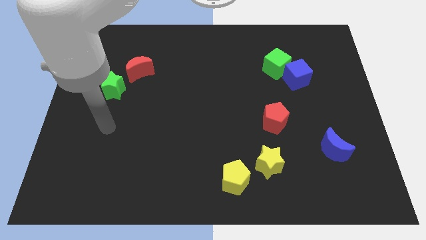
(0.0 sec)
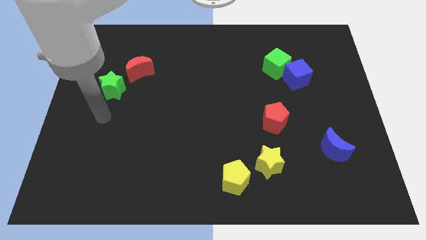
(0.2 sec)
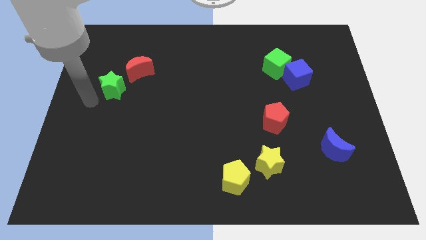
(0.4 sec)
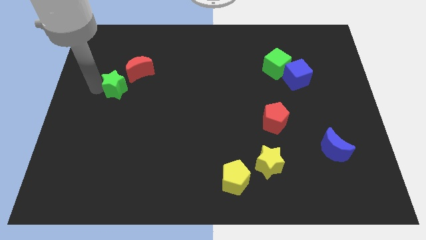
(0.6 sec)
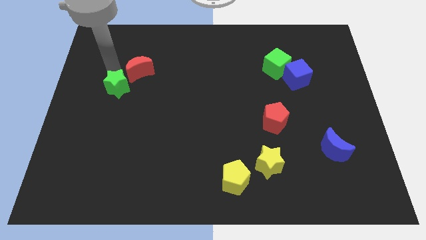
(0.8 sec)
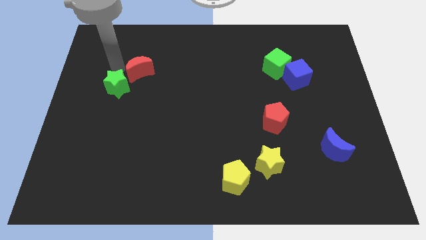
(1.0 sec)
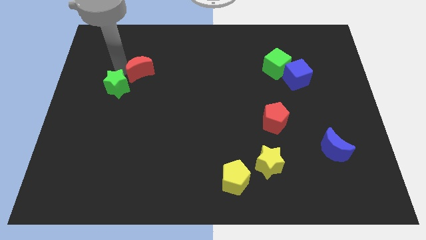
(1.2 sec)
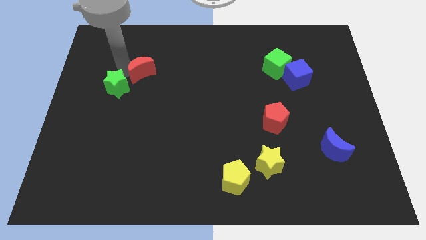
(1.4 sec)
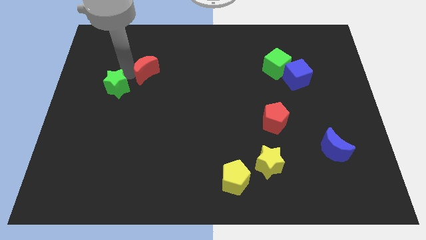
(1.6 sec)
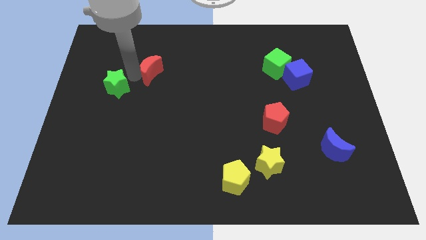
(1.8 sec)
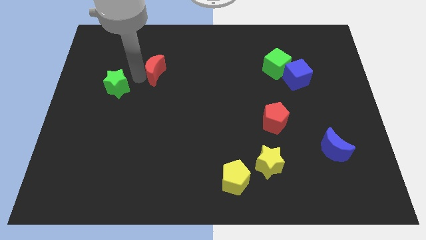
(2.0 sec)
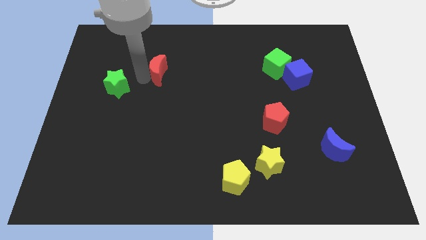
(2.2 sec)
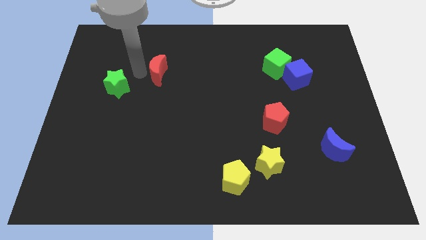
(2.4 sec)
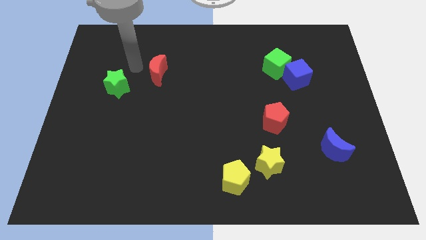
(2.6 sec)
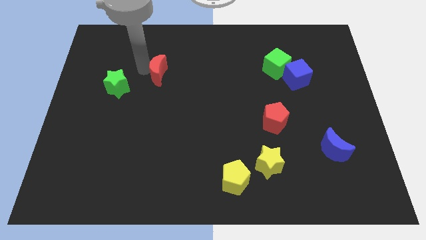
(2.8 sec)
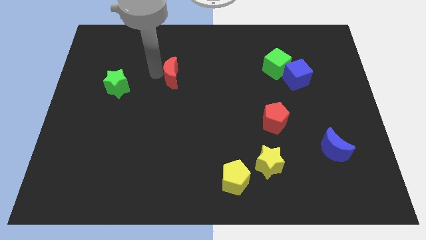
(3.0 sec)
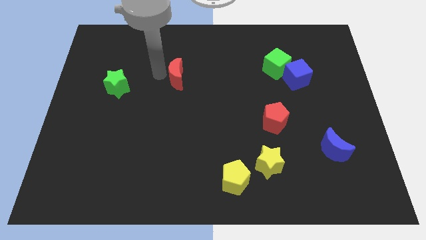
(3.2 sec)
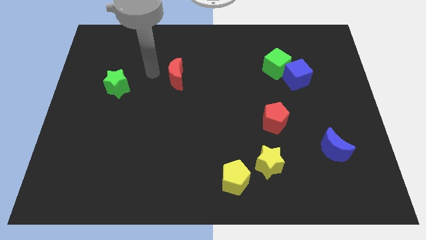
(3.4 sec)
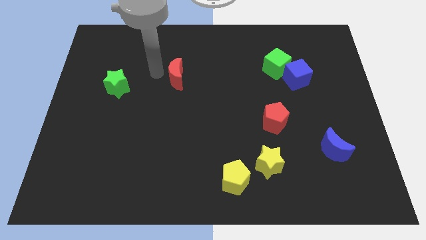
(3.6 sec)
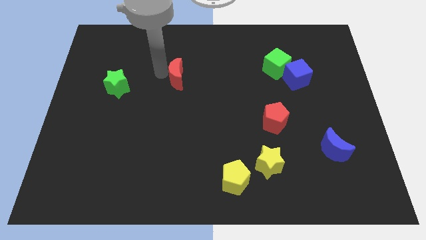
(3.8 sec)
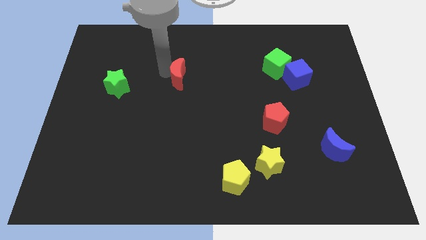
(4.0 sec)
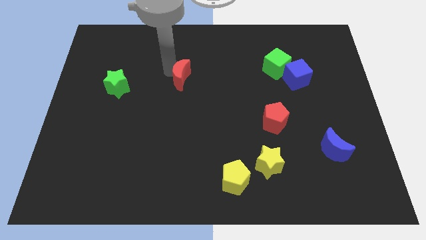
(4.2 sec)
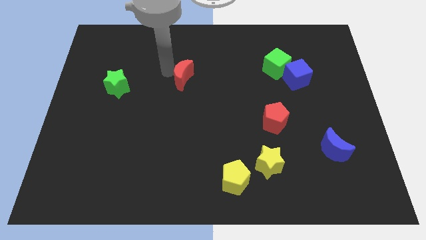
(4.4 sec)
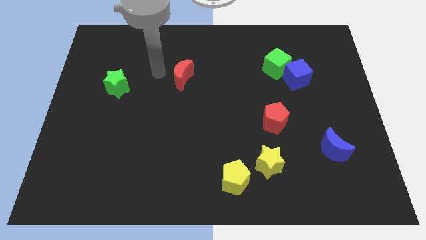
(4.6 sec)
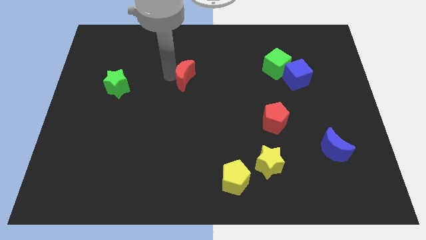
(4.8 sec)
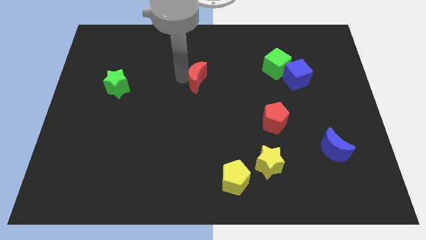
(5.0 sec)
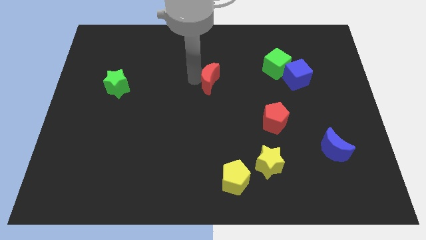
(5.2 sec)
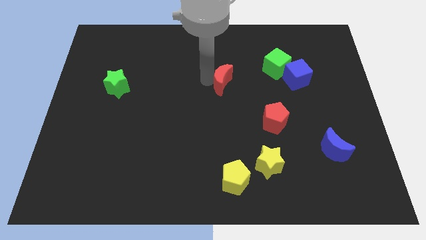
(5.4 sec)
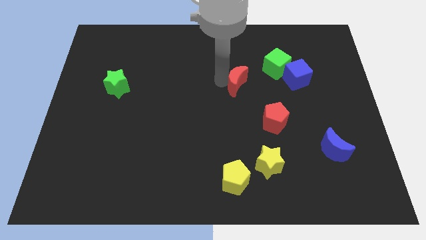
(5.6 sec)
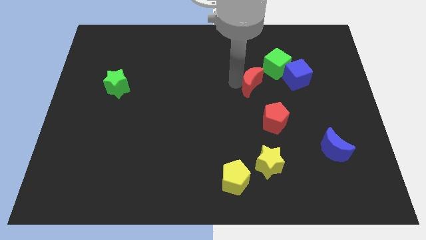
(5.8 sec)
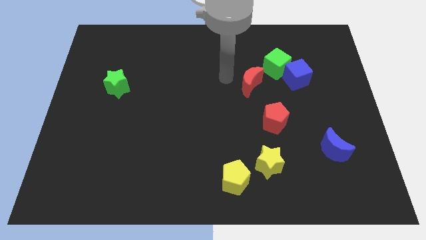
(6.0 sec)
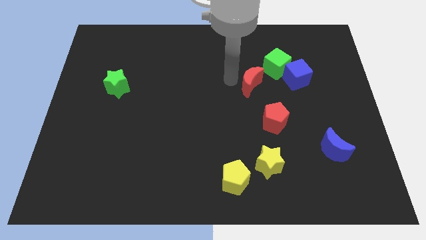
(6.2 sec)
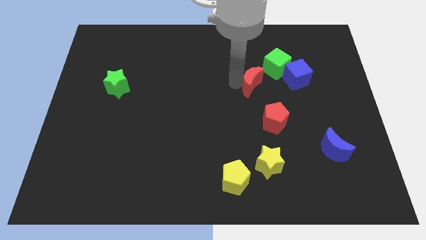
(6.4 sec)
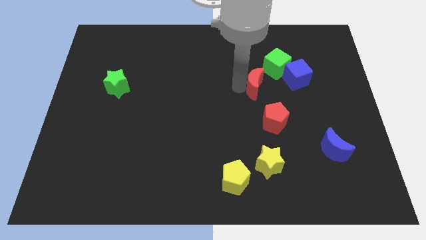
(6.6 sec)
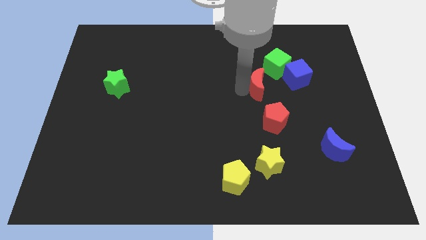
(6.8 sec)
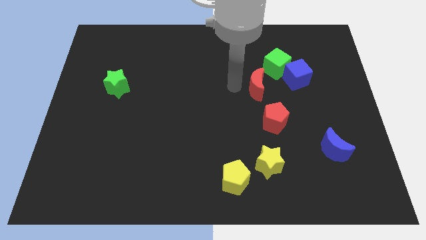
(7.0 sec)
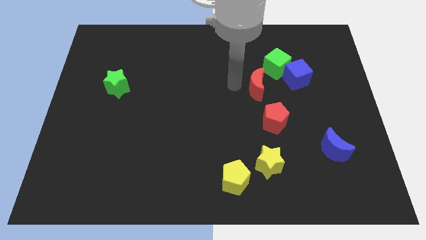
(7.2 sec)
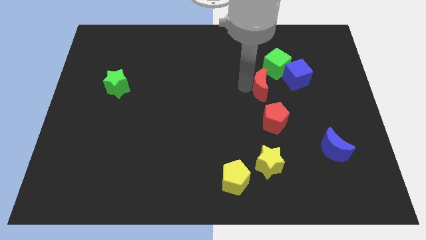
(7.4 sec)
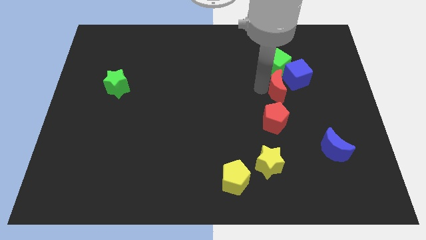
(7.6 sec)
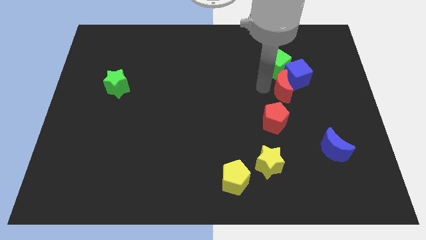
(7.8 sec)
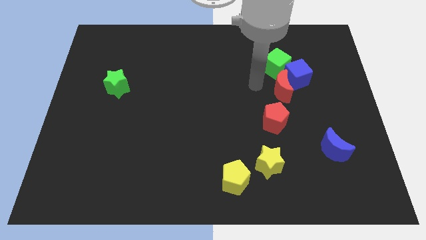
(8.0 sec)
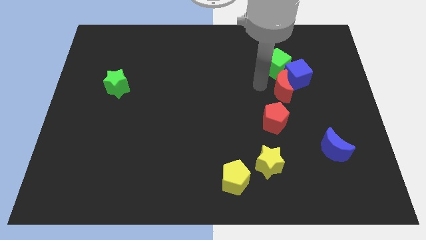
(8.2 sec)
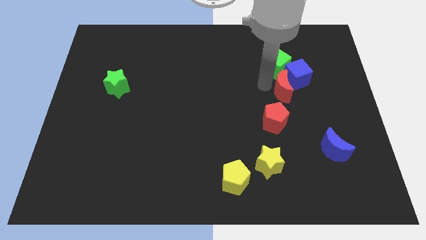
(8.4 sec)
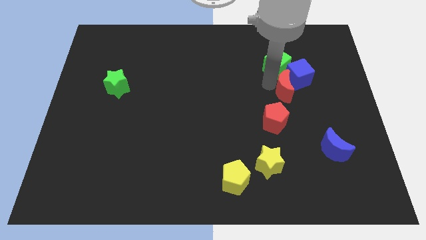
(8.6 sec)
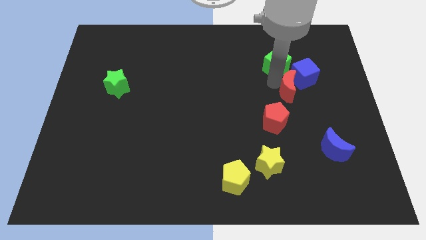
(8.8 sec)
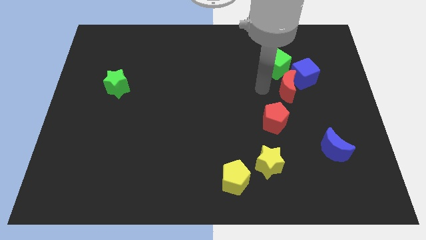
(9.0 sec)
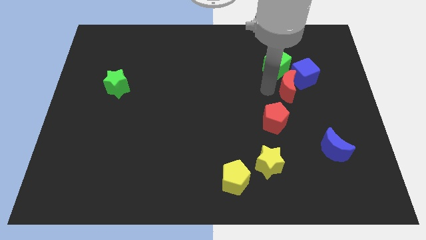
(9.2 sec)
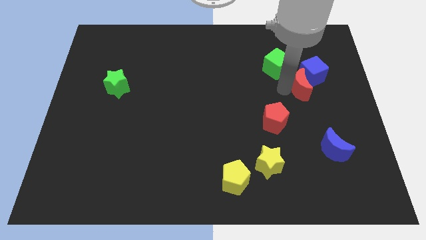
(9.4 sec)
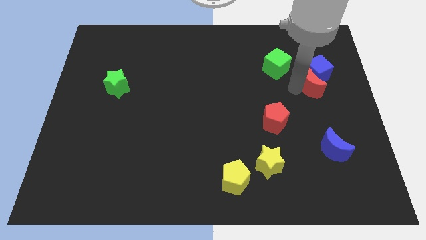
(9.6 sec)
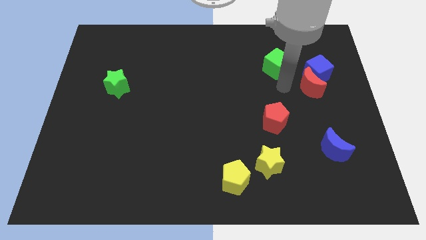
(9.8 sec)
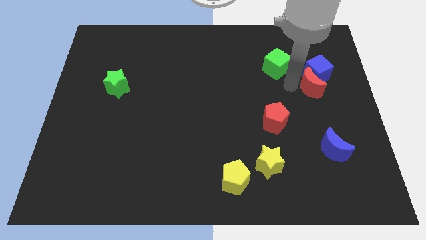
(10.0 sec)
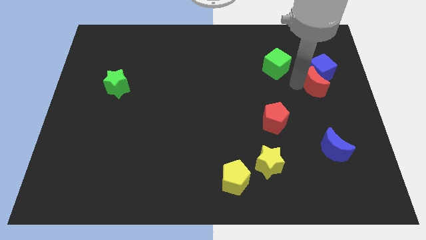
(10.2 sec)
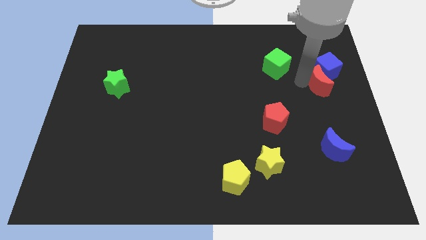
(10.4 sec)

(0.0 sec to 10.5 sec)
slide the red moon to the right side

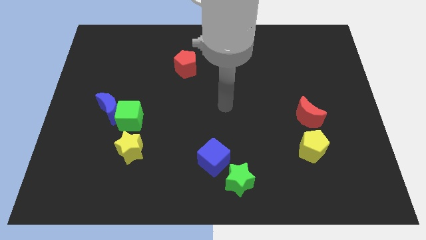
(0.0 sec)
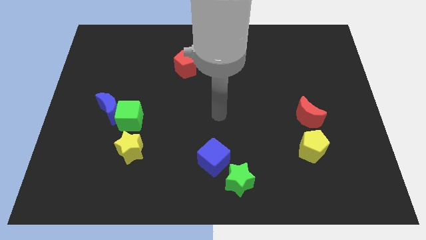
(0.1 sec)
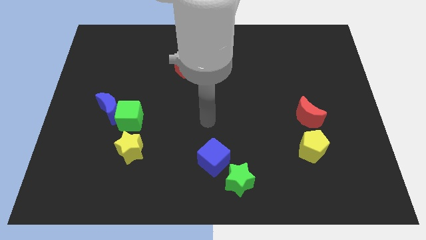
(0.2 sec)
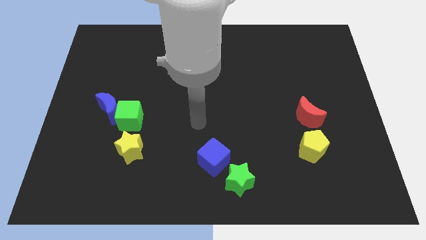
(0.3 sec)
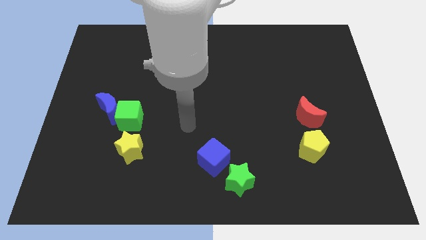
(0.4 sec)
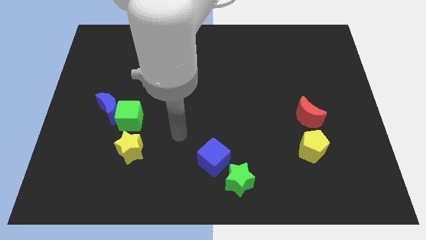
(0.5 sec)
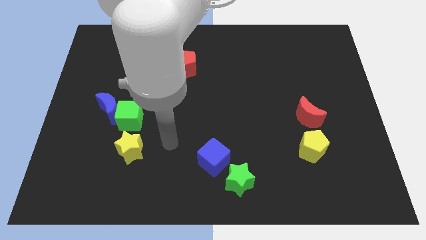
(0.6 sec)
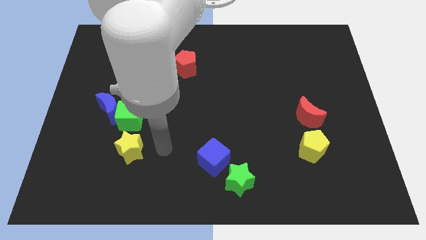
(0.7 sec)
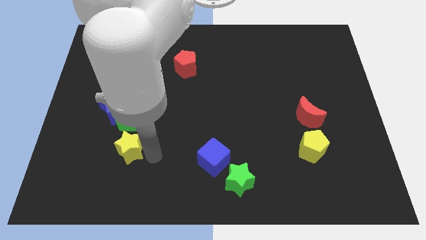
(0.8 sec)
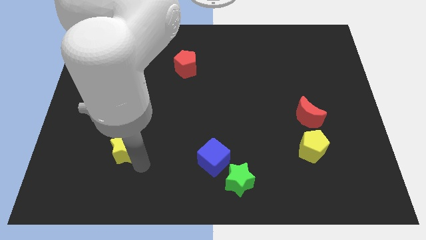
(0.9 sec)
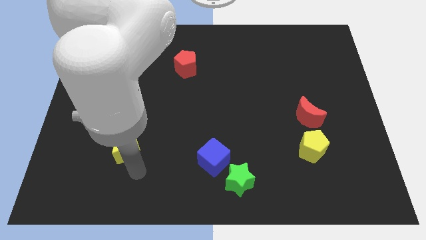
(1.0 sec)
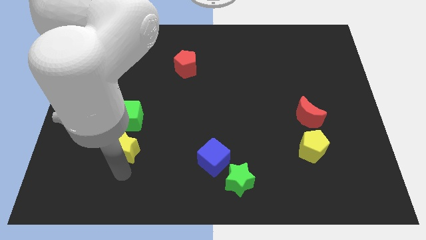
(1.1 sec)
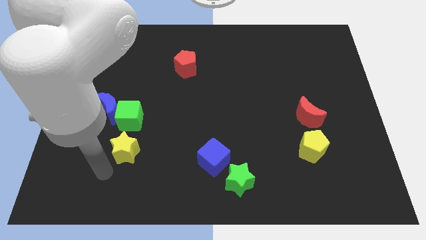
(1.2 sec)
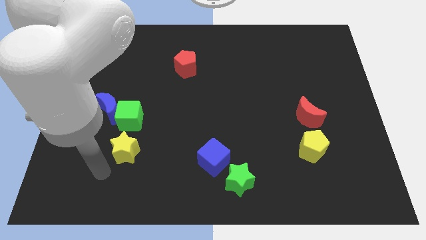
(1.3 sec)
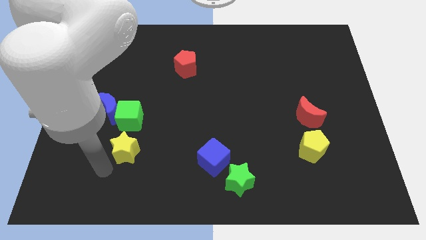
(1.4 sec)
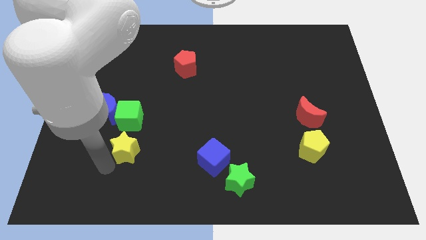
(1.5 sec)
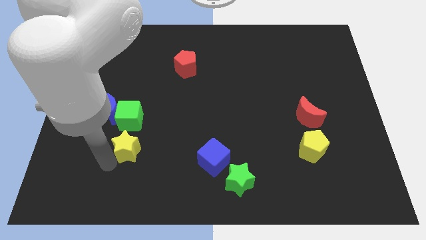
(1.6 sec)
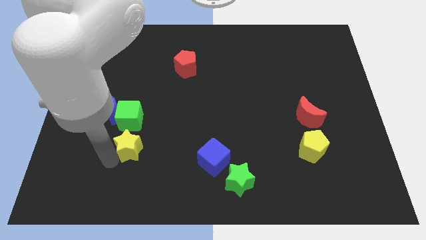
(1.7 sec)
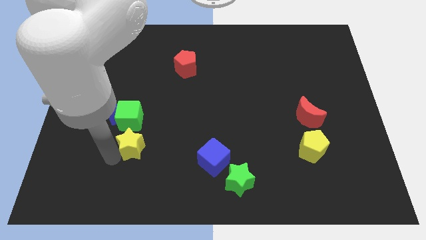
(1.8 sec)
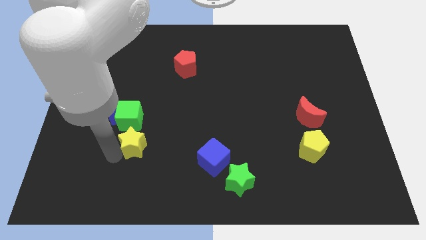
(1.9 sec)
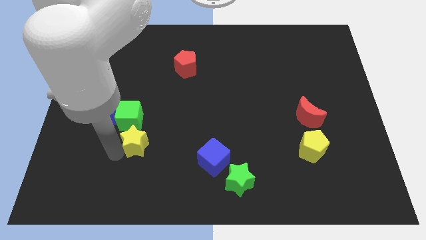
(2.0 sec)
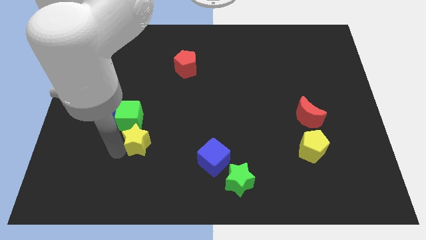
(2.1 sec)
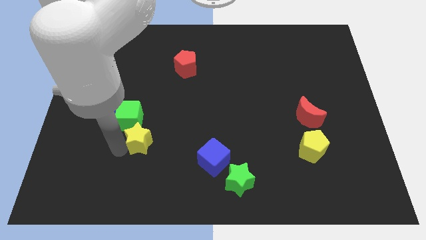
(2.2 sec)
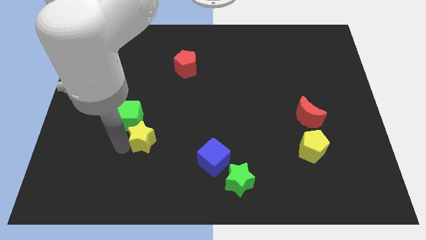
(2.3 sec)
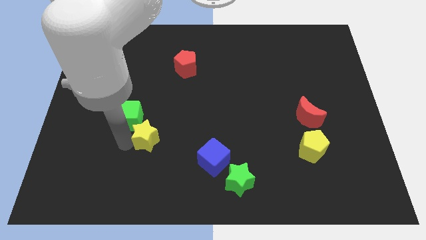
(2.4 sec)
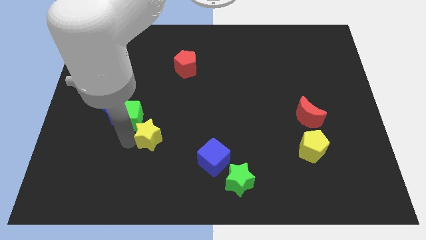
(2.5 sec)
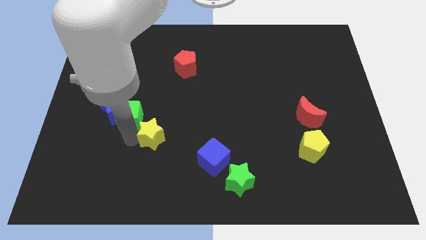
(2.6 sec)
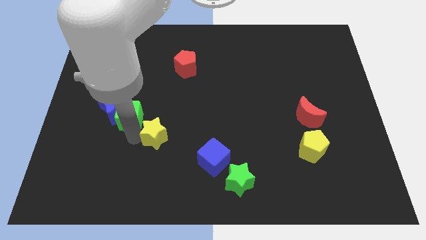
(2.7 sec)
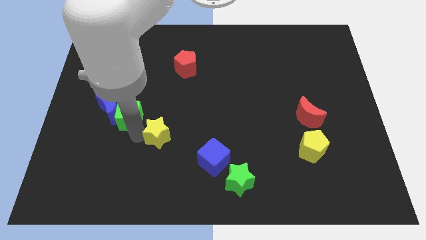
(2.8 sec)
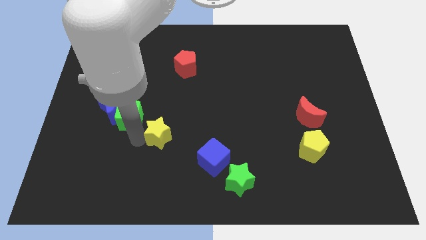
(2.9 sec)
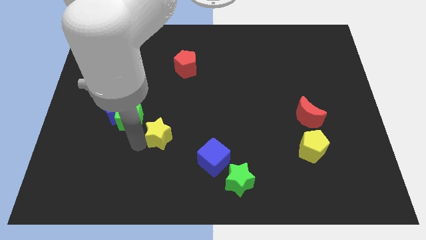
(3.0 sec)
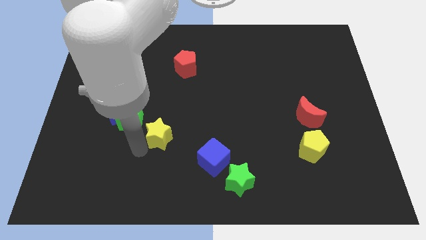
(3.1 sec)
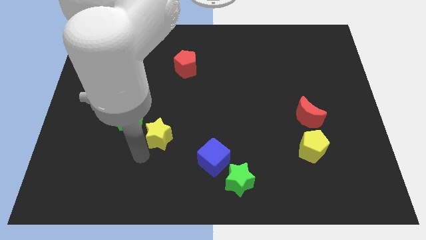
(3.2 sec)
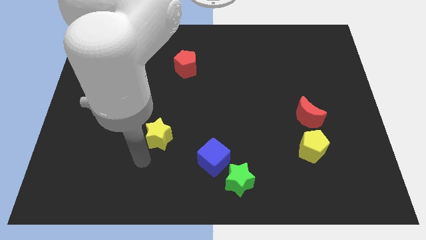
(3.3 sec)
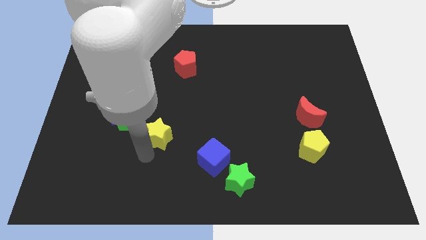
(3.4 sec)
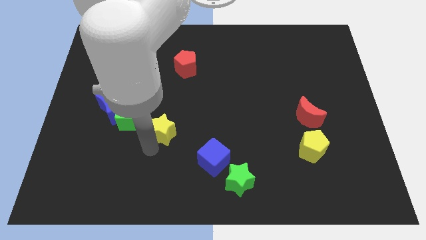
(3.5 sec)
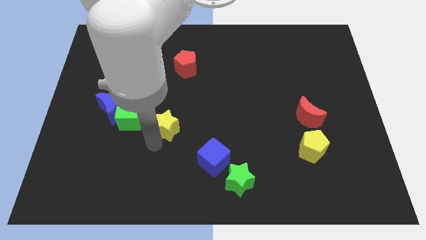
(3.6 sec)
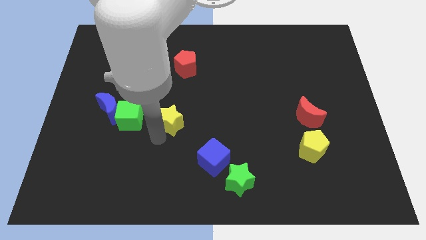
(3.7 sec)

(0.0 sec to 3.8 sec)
slide the yellow star to the center
